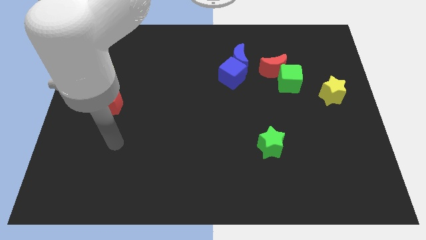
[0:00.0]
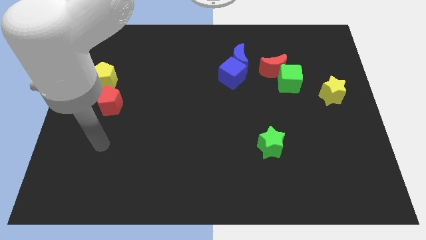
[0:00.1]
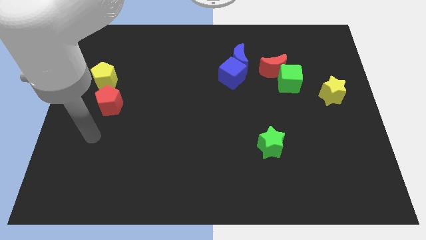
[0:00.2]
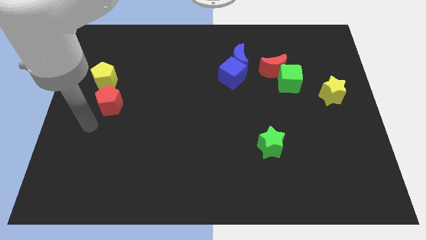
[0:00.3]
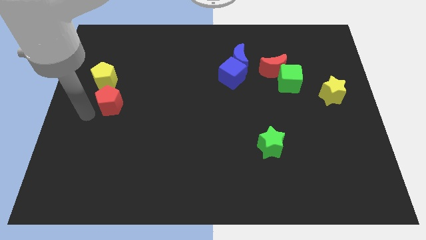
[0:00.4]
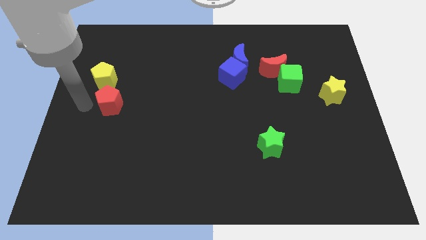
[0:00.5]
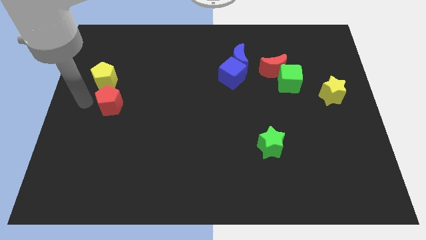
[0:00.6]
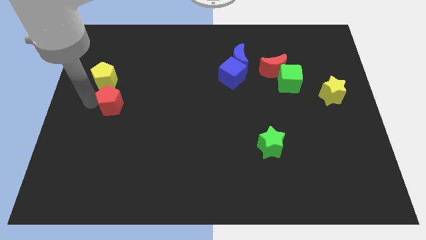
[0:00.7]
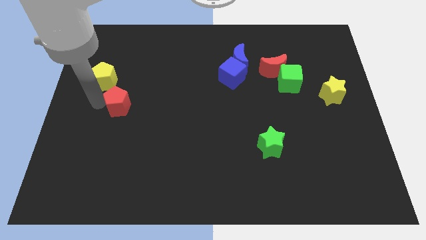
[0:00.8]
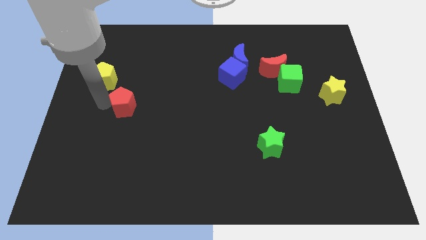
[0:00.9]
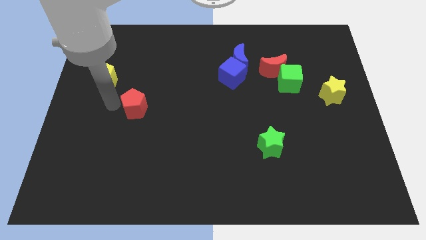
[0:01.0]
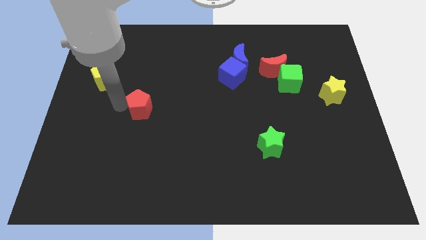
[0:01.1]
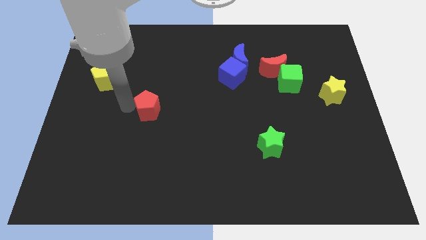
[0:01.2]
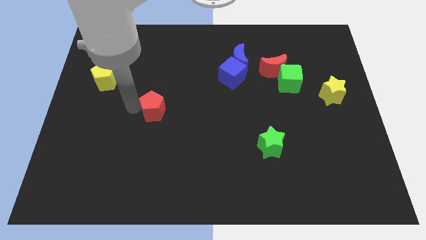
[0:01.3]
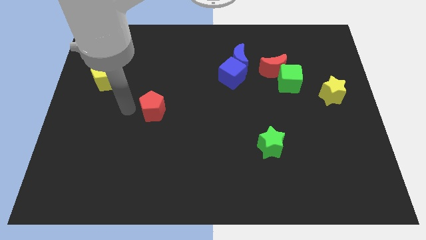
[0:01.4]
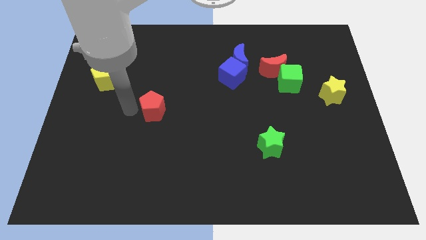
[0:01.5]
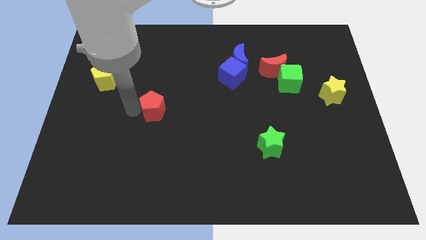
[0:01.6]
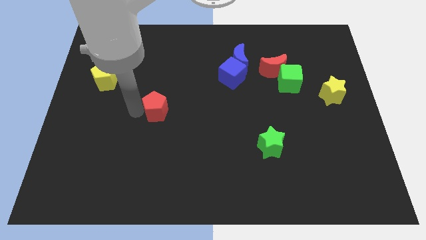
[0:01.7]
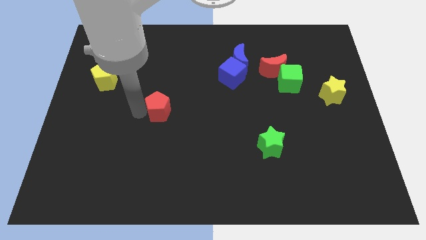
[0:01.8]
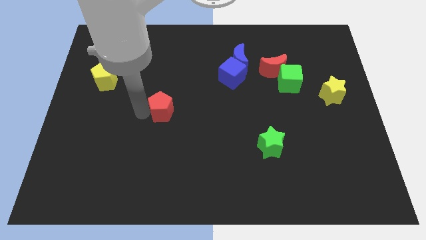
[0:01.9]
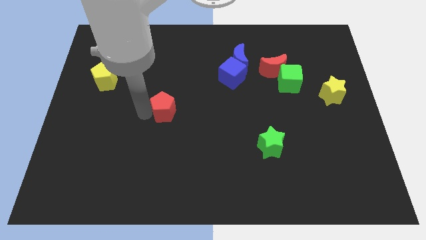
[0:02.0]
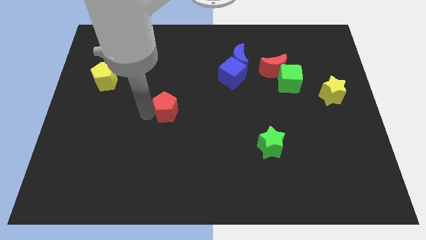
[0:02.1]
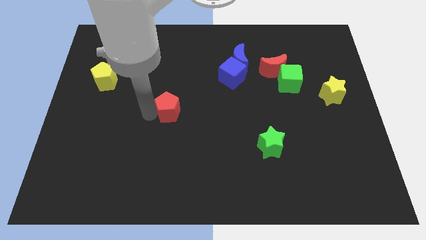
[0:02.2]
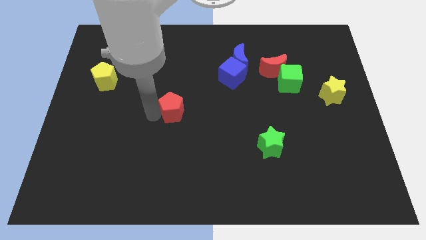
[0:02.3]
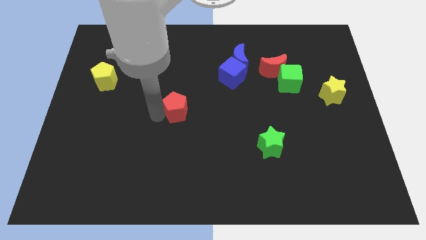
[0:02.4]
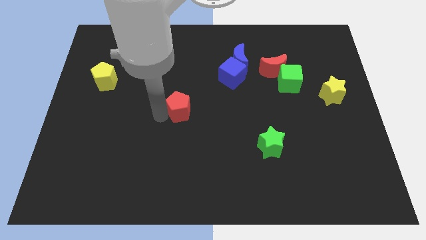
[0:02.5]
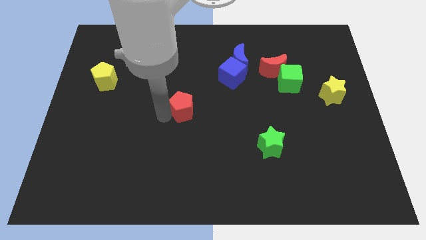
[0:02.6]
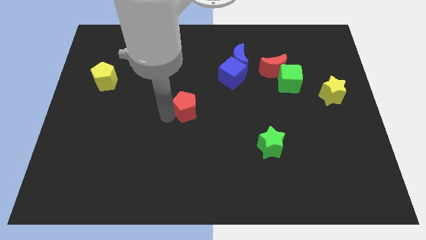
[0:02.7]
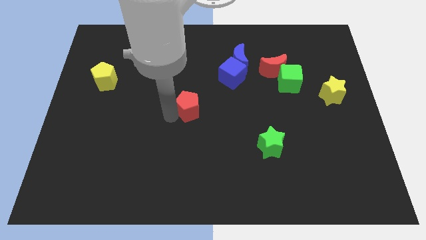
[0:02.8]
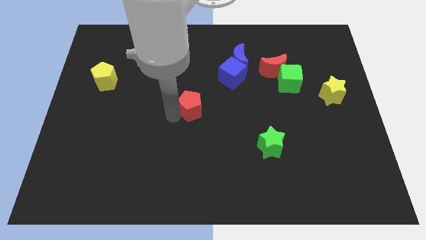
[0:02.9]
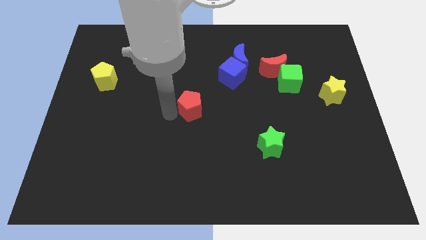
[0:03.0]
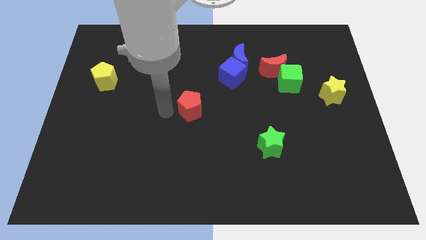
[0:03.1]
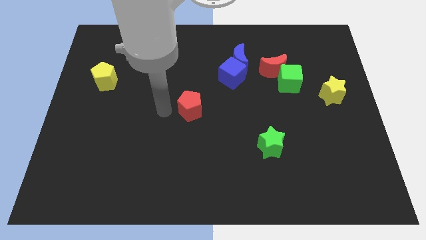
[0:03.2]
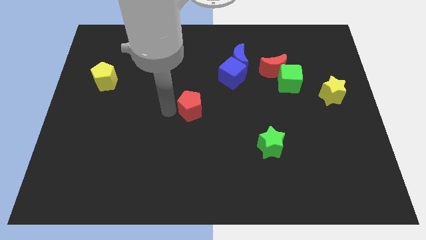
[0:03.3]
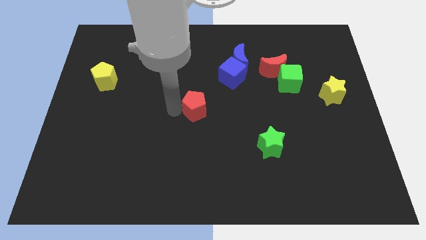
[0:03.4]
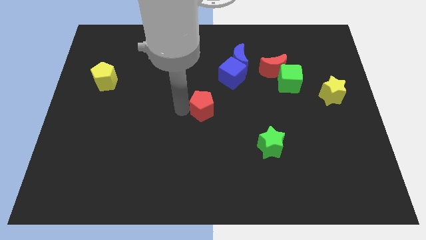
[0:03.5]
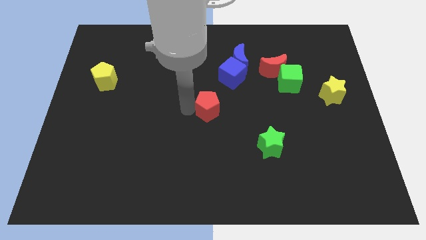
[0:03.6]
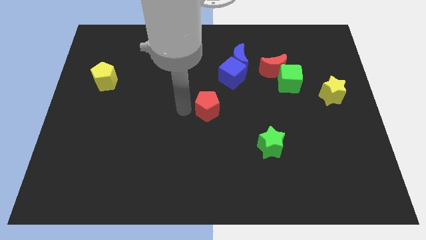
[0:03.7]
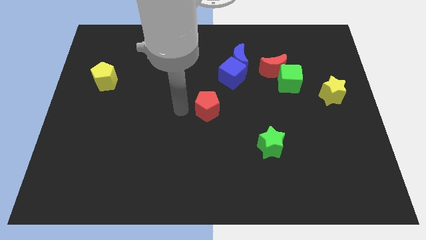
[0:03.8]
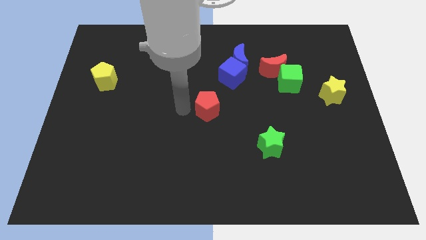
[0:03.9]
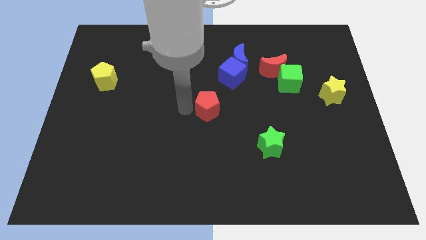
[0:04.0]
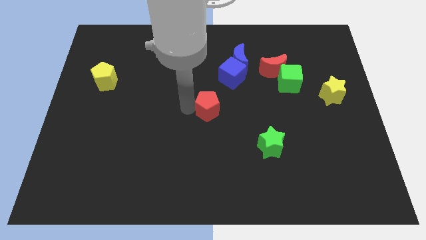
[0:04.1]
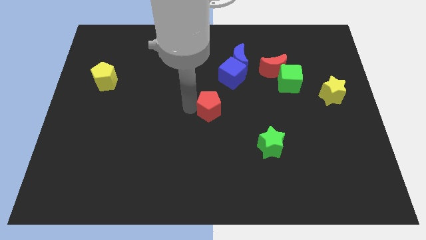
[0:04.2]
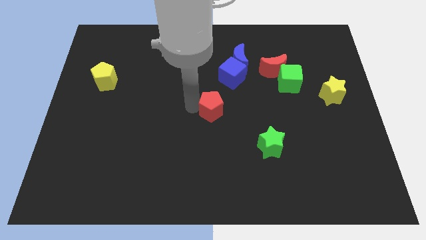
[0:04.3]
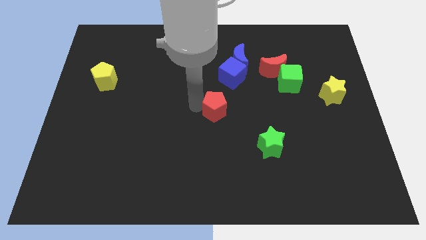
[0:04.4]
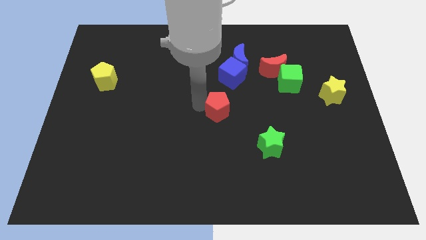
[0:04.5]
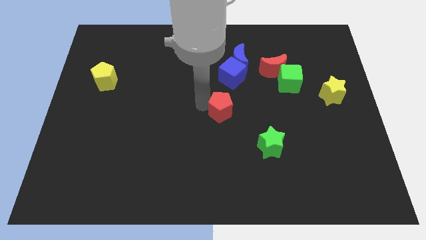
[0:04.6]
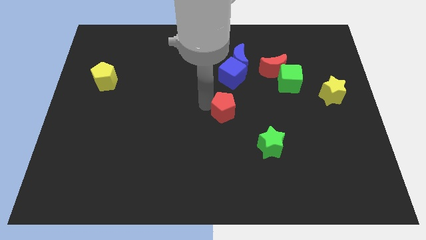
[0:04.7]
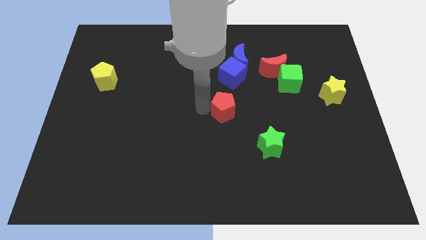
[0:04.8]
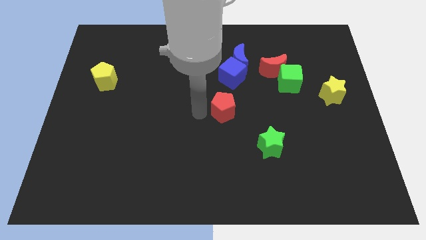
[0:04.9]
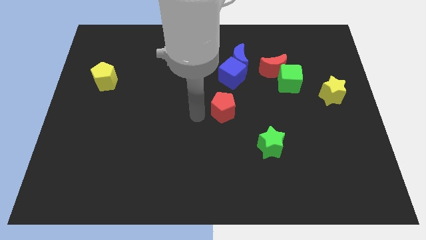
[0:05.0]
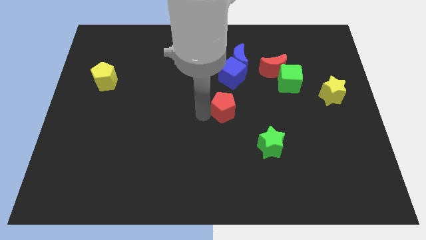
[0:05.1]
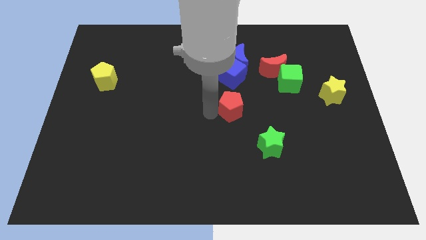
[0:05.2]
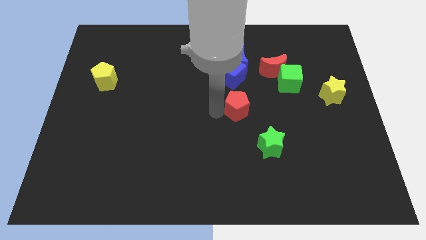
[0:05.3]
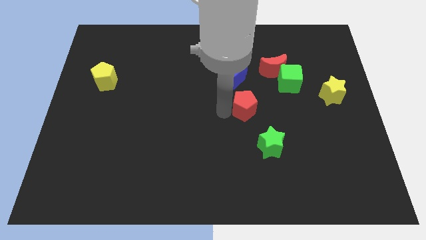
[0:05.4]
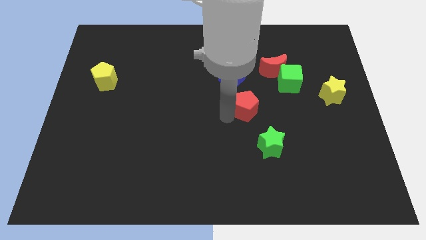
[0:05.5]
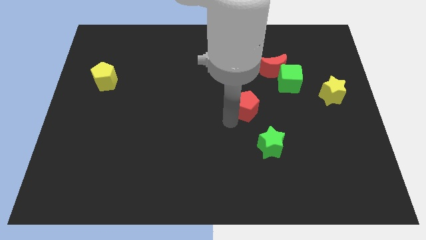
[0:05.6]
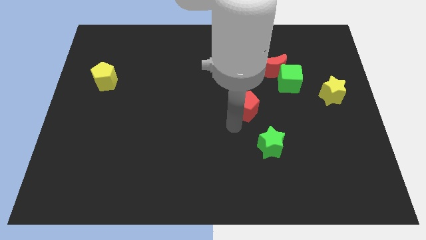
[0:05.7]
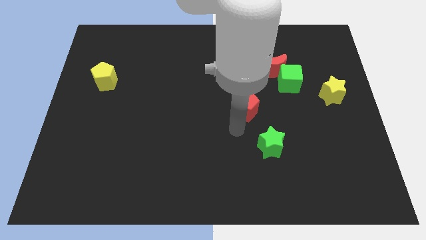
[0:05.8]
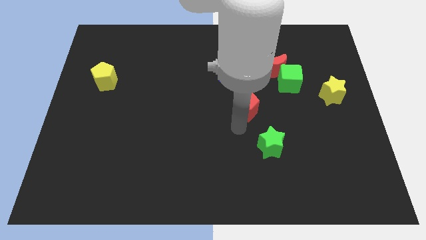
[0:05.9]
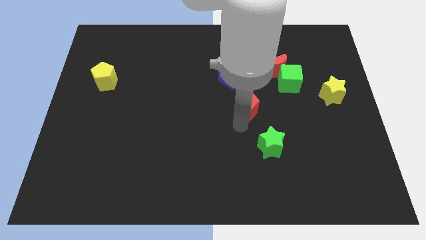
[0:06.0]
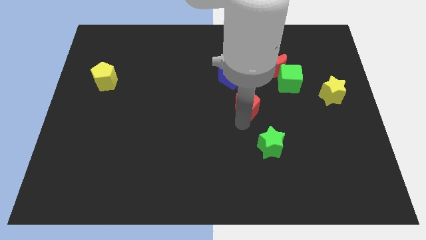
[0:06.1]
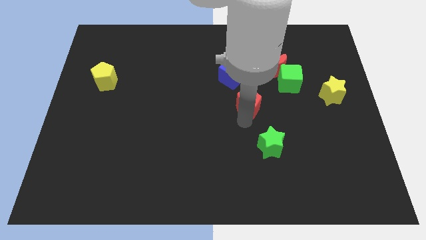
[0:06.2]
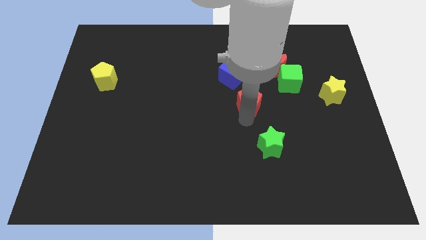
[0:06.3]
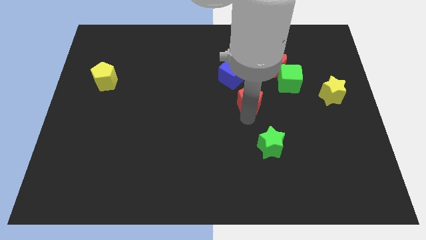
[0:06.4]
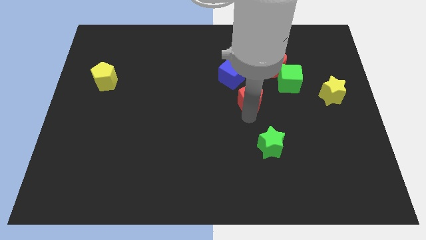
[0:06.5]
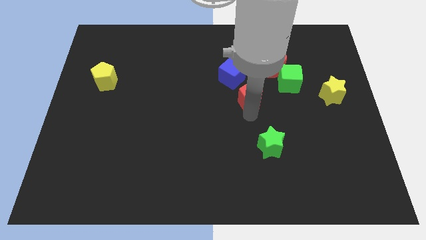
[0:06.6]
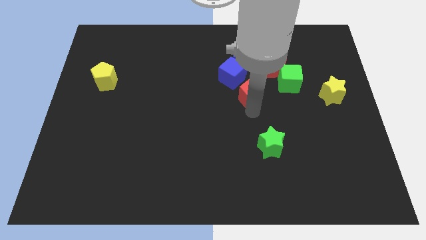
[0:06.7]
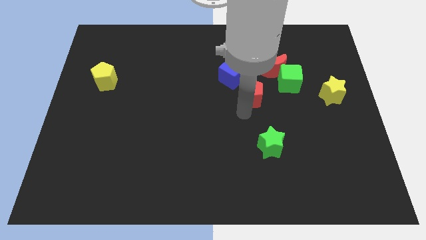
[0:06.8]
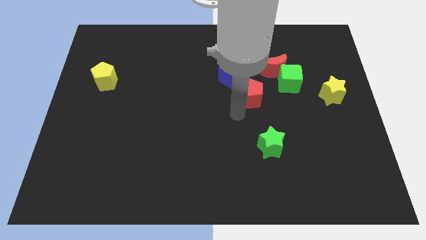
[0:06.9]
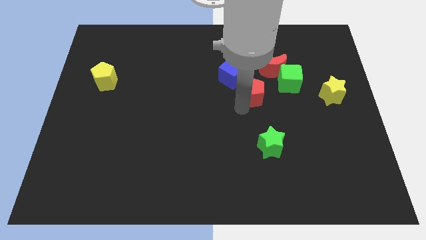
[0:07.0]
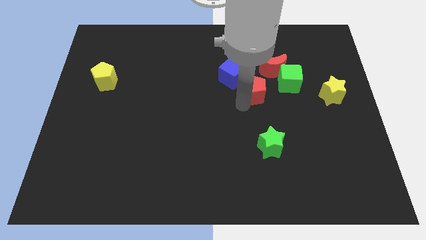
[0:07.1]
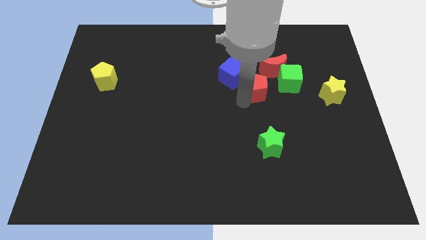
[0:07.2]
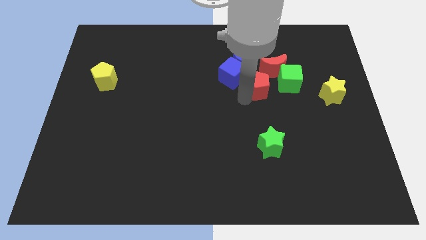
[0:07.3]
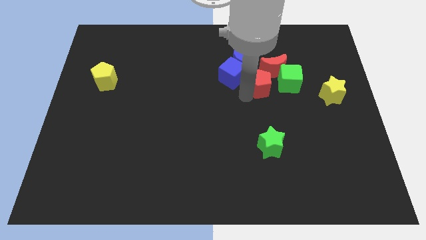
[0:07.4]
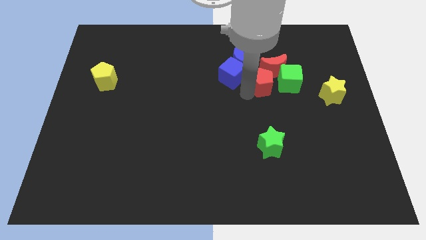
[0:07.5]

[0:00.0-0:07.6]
slide the red pentagon close to the red moon
